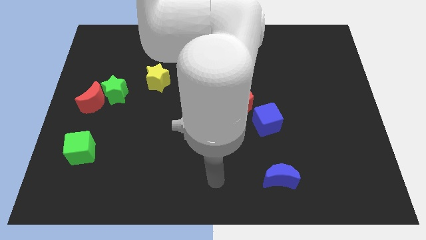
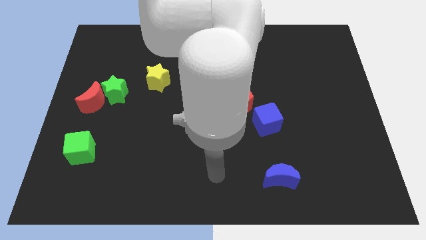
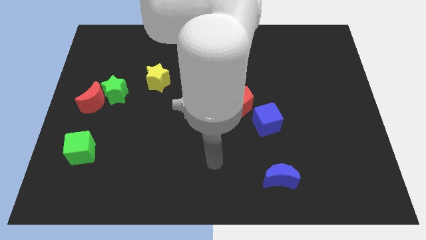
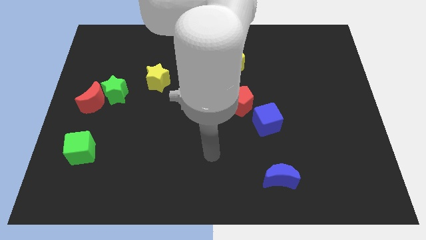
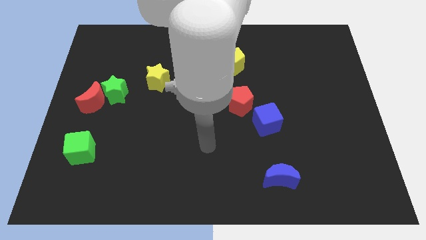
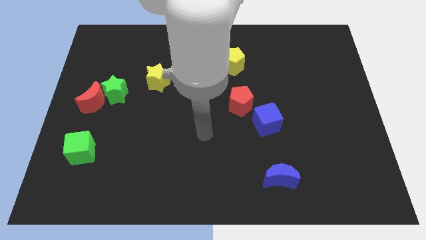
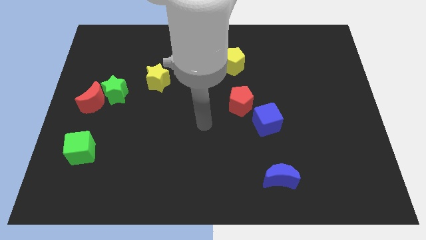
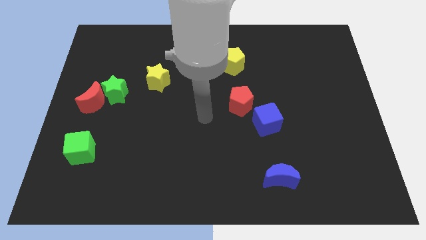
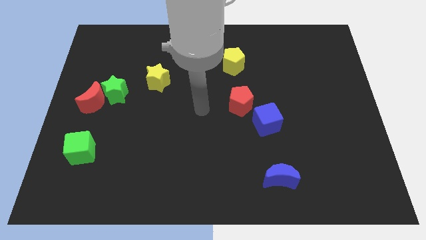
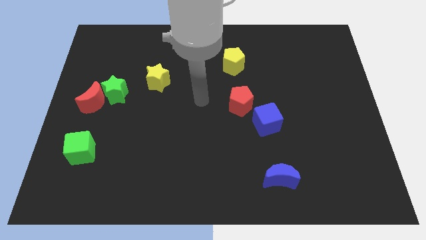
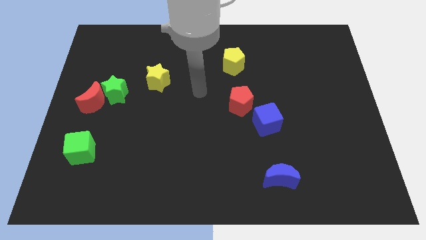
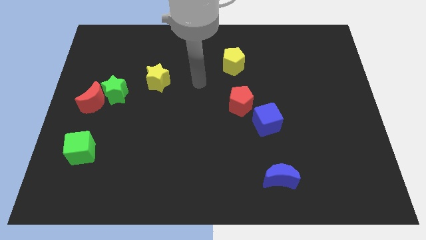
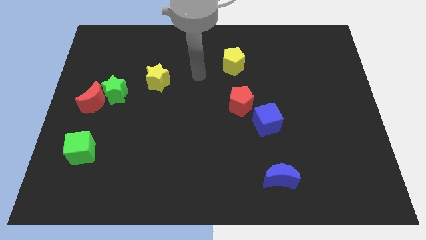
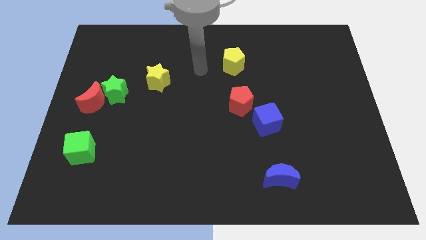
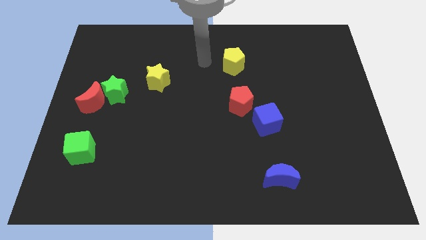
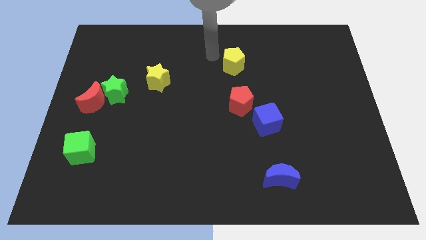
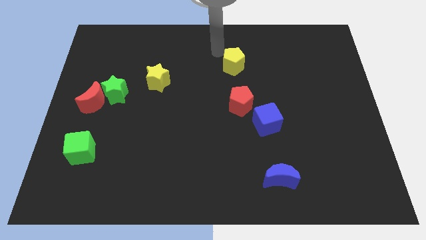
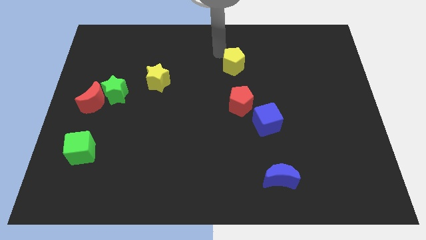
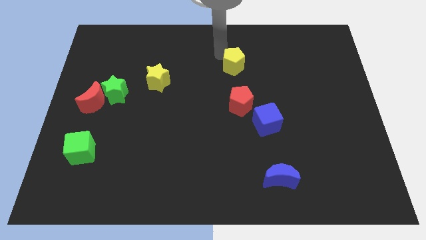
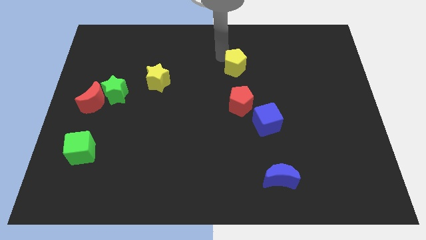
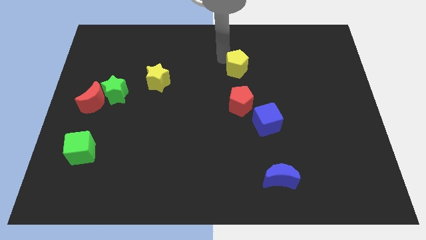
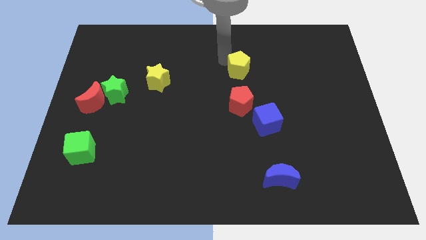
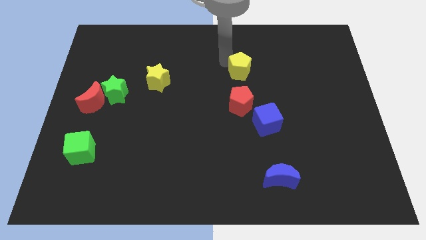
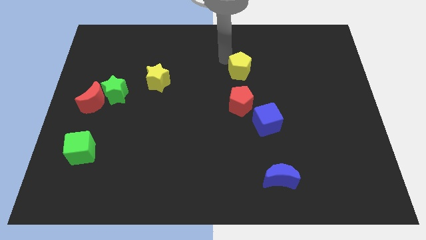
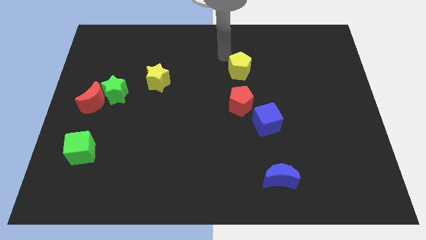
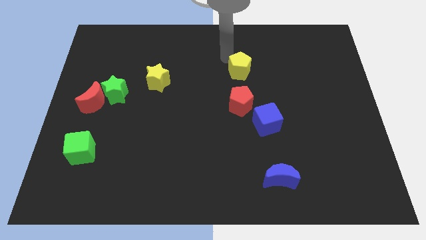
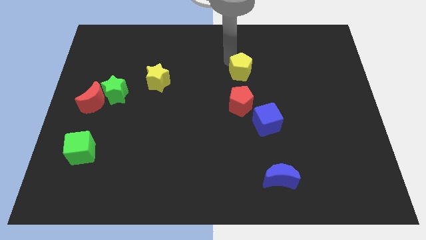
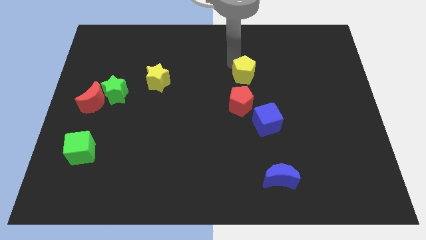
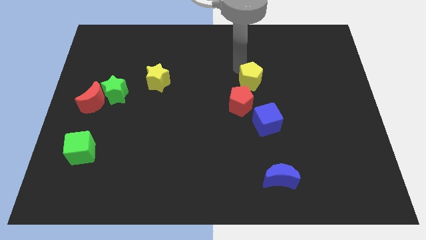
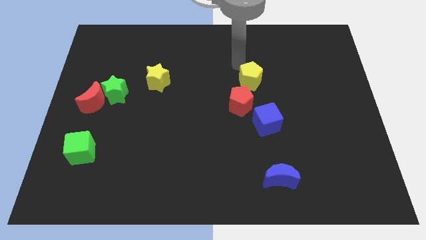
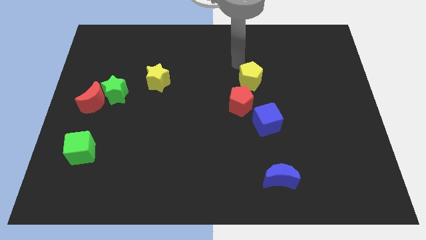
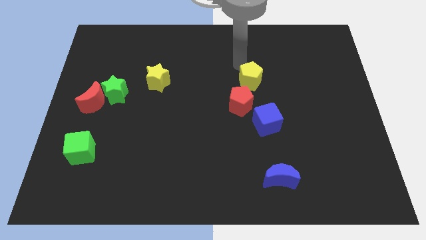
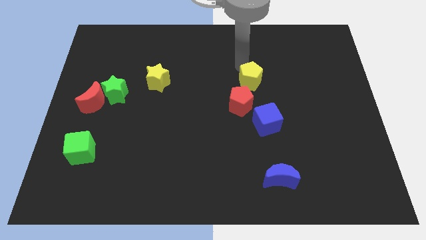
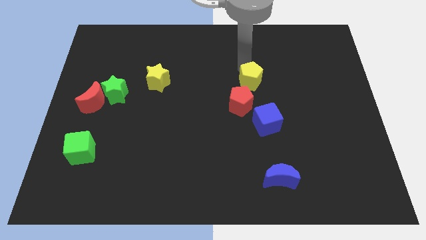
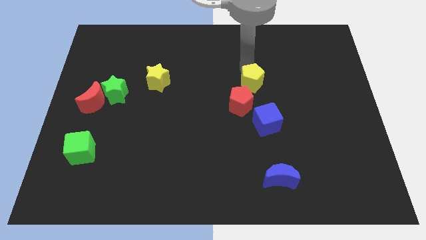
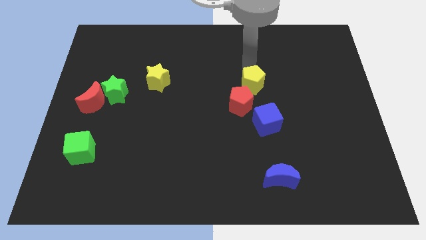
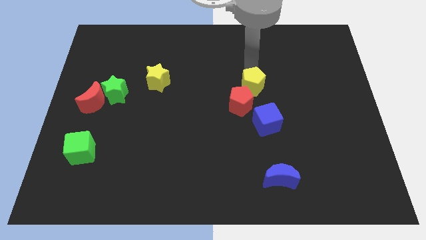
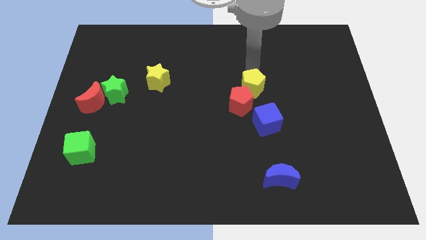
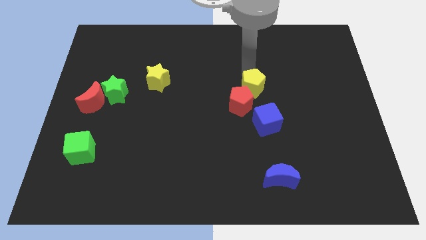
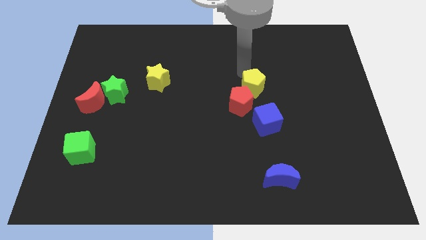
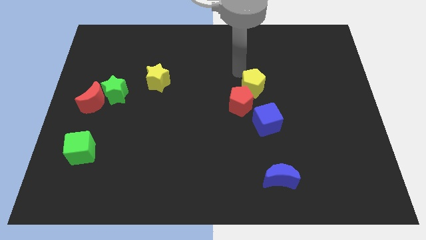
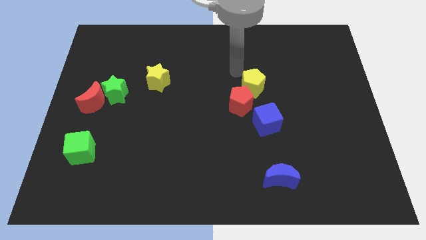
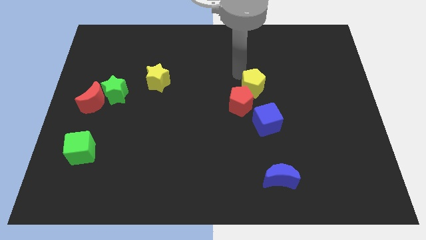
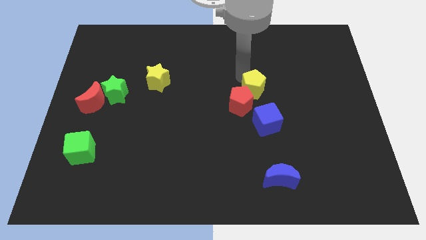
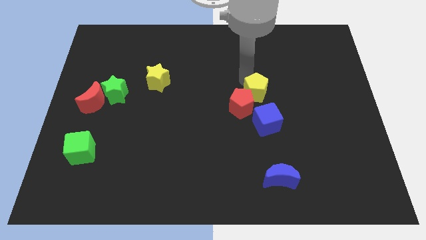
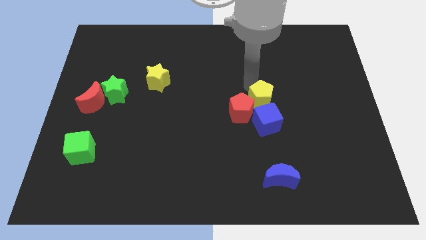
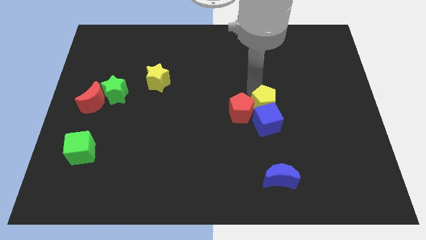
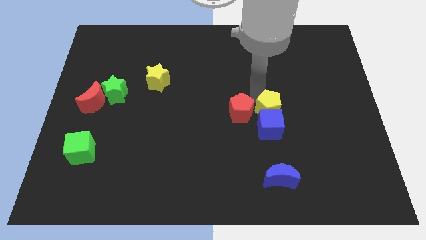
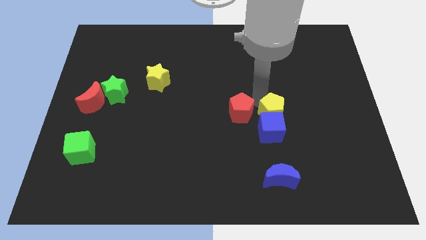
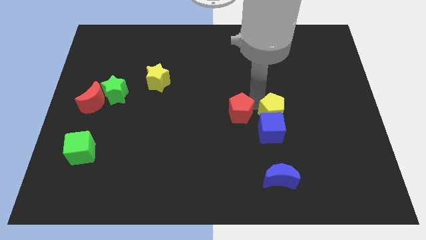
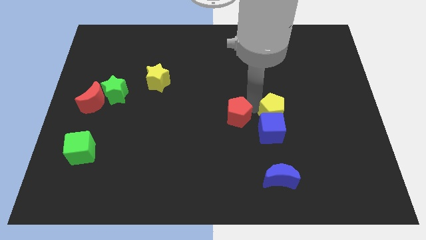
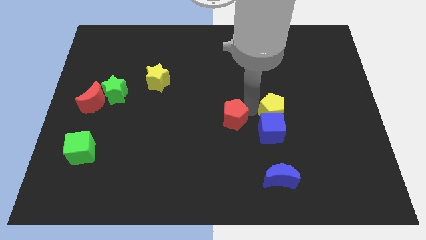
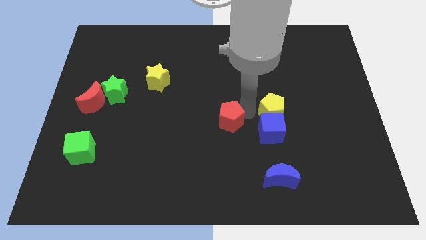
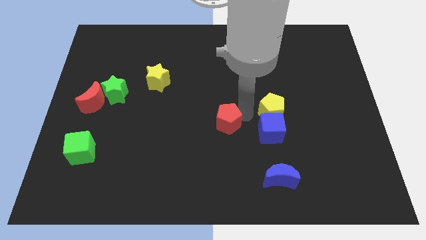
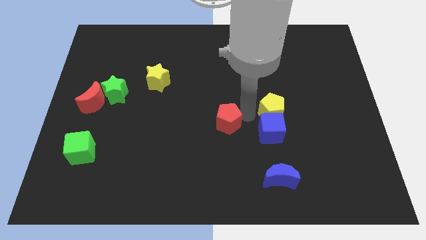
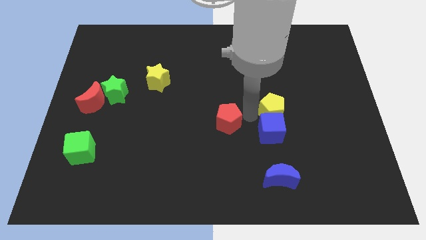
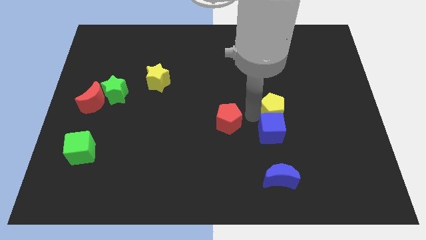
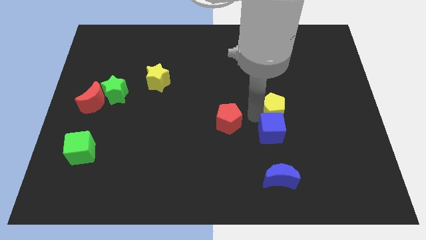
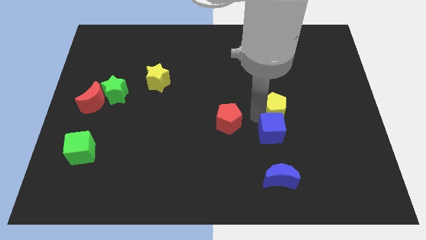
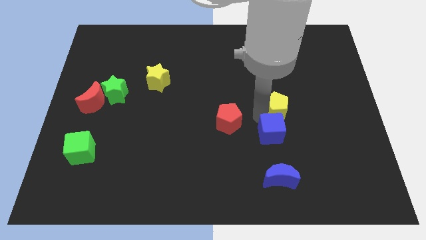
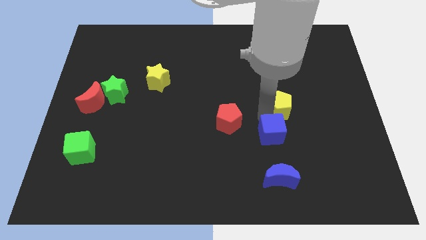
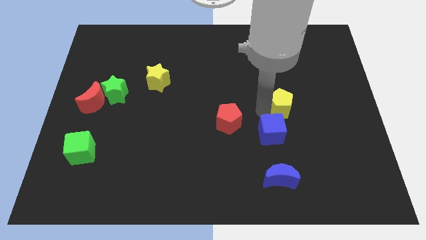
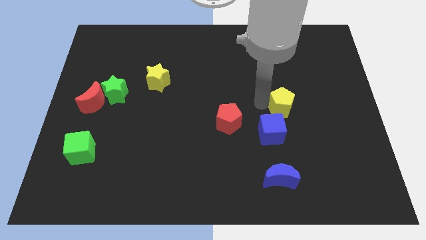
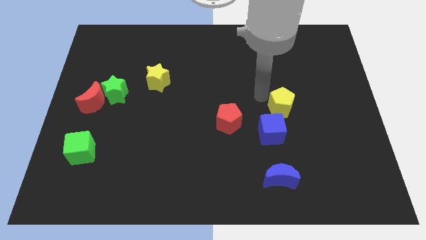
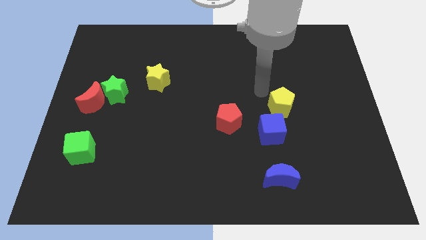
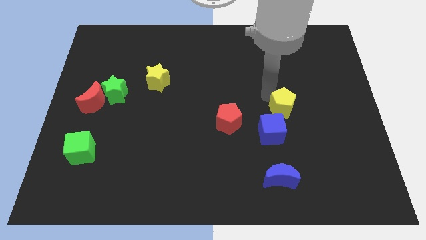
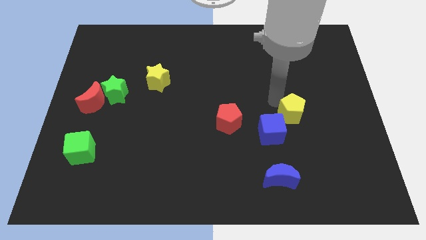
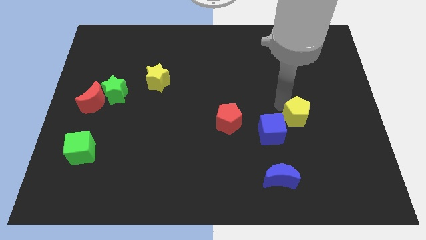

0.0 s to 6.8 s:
put the yellow pentagon to the right of the blue cube
